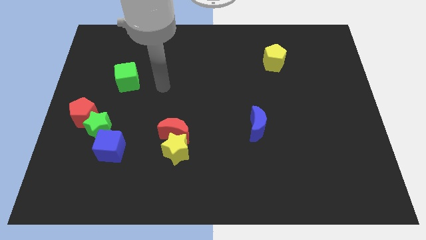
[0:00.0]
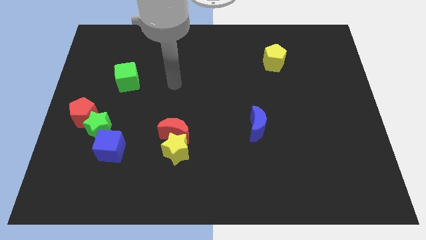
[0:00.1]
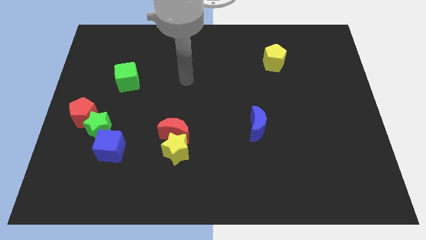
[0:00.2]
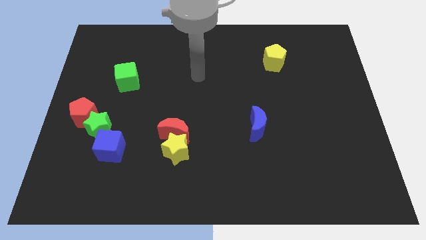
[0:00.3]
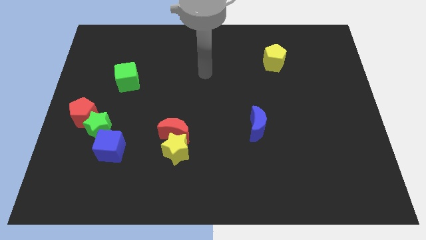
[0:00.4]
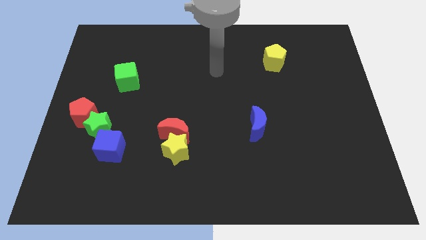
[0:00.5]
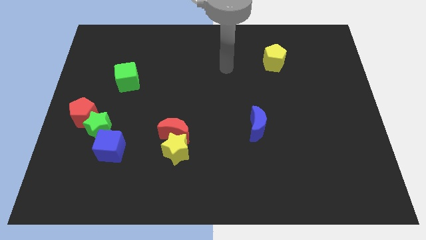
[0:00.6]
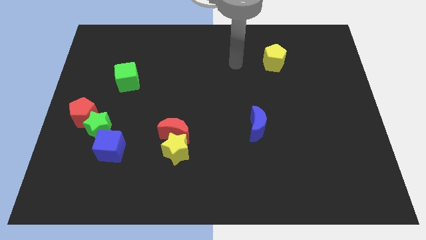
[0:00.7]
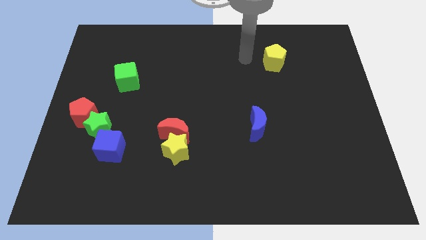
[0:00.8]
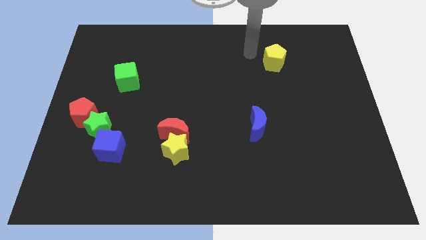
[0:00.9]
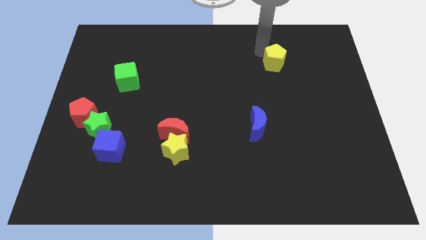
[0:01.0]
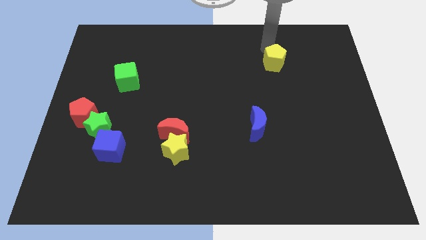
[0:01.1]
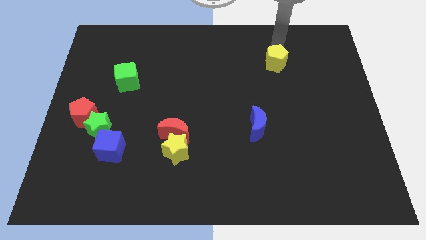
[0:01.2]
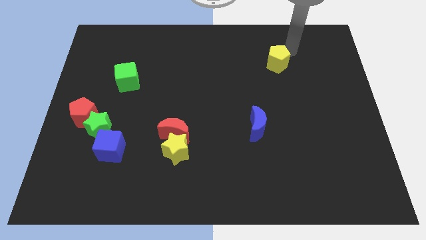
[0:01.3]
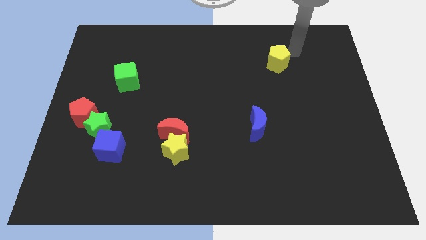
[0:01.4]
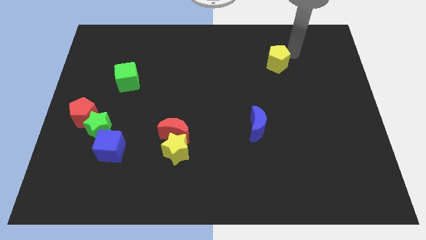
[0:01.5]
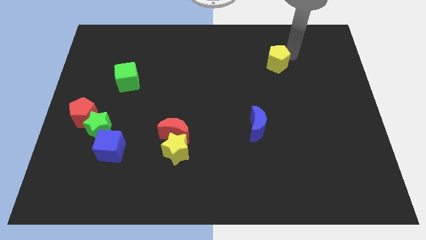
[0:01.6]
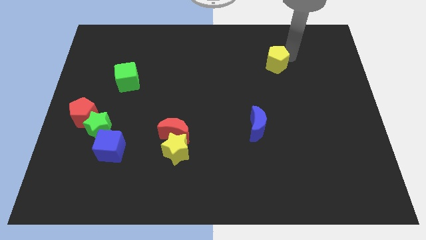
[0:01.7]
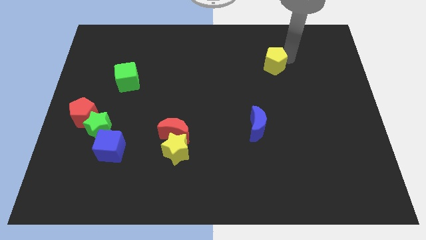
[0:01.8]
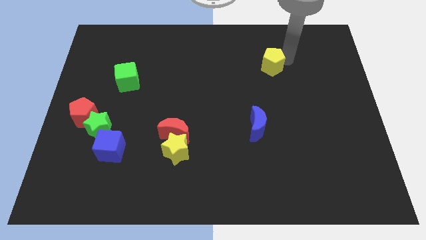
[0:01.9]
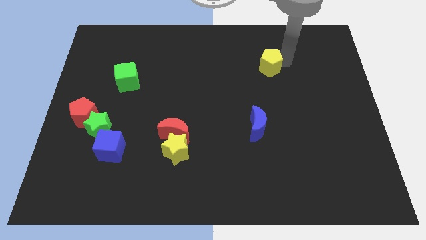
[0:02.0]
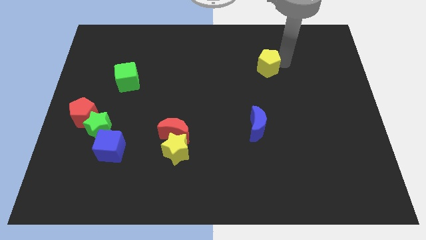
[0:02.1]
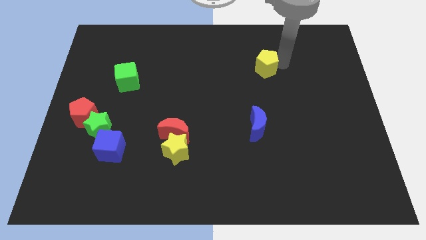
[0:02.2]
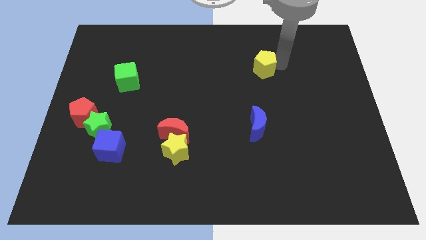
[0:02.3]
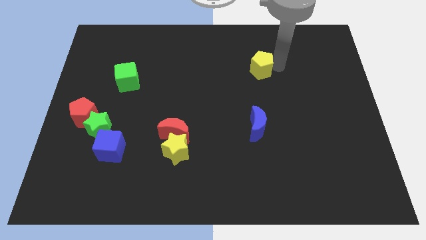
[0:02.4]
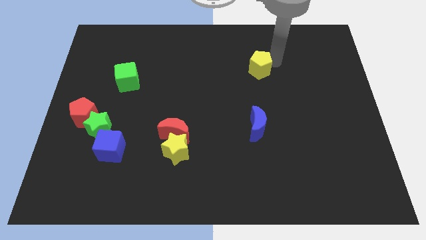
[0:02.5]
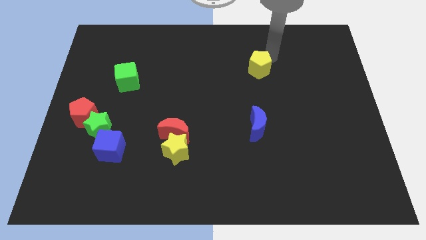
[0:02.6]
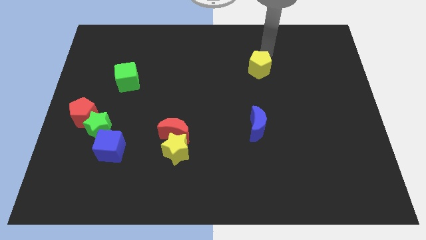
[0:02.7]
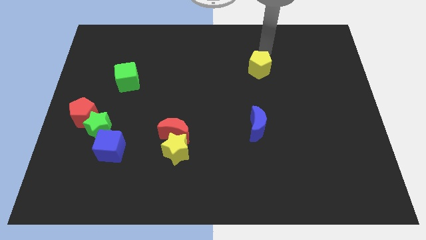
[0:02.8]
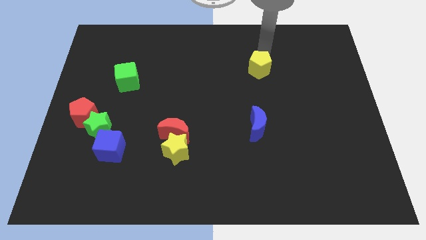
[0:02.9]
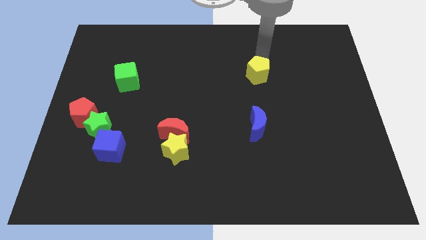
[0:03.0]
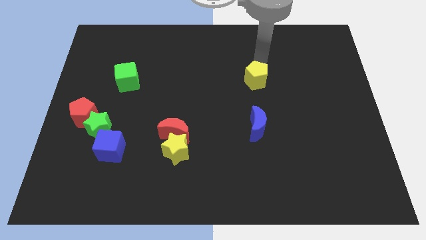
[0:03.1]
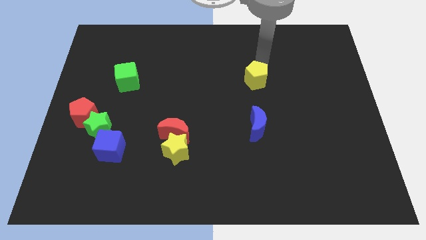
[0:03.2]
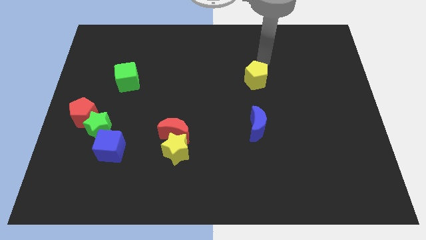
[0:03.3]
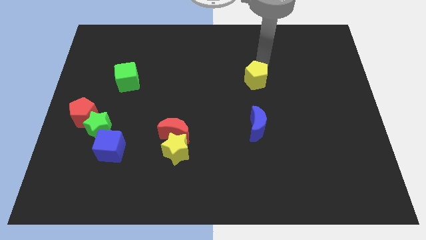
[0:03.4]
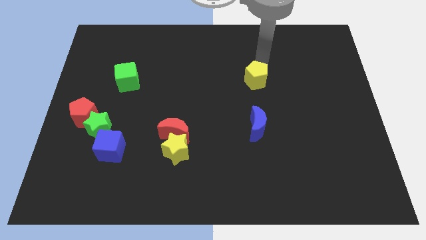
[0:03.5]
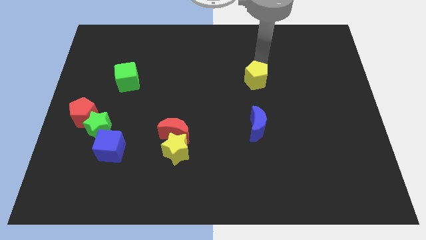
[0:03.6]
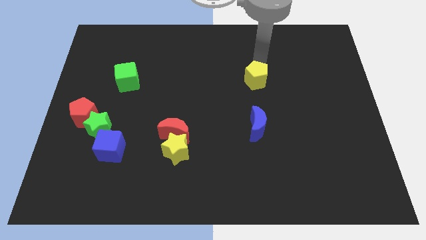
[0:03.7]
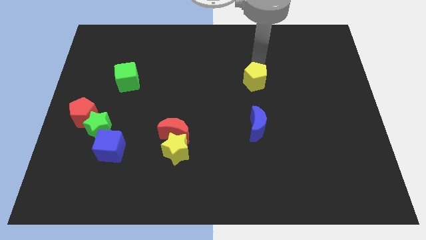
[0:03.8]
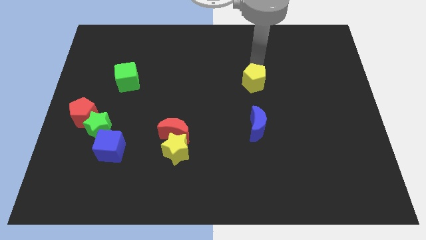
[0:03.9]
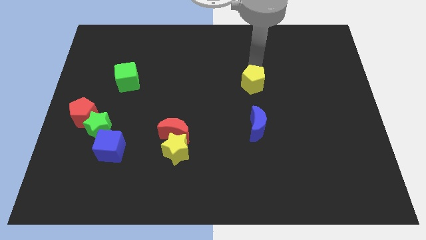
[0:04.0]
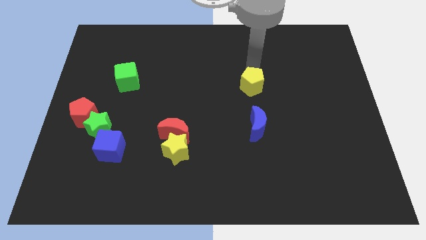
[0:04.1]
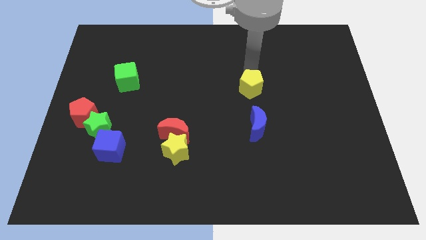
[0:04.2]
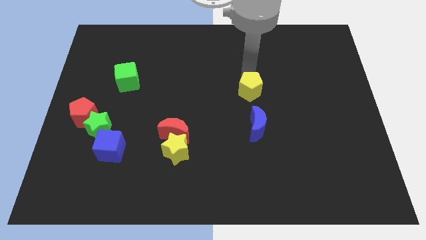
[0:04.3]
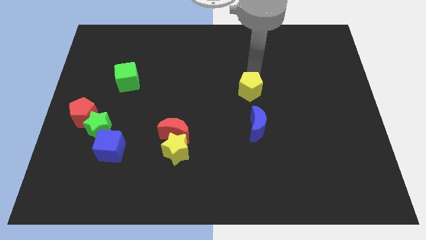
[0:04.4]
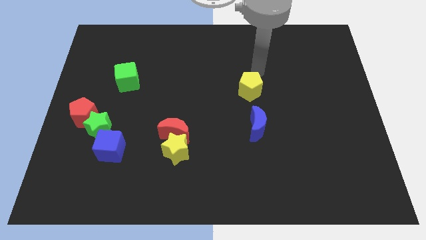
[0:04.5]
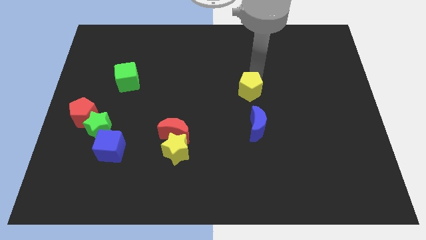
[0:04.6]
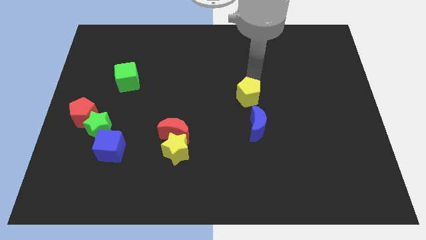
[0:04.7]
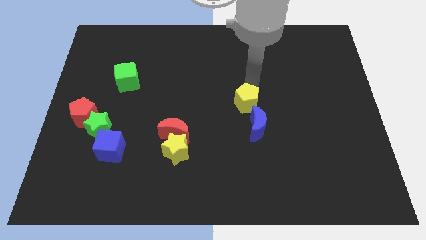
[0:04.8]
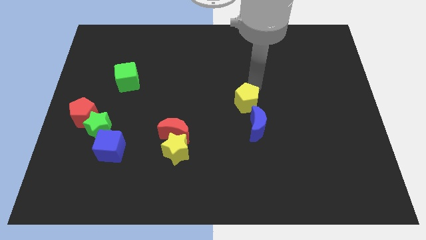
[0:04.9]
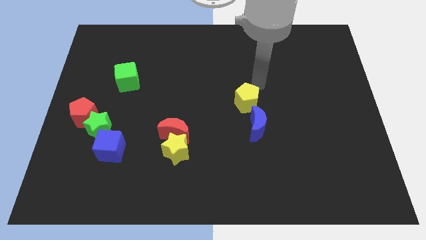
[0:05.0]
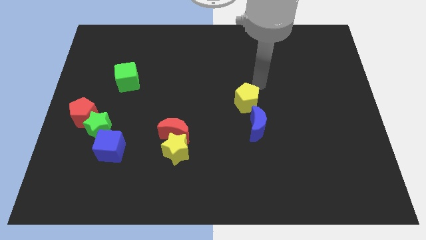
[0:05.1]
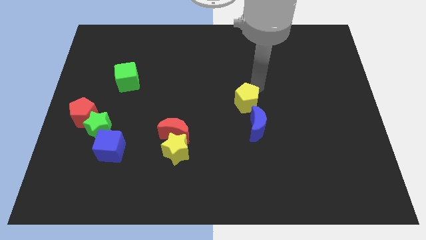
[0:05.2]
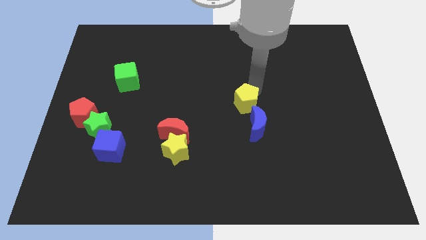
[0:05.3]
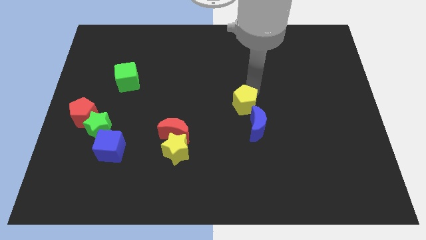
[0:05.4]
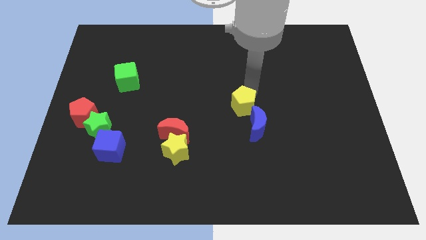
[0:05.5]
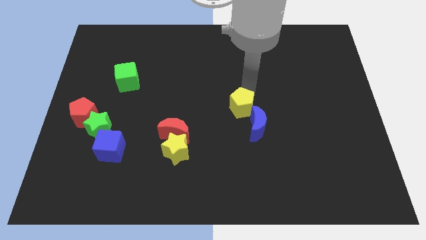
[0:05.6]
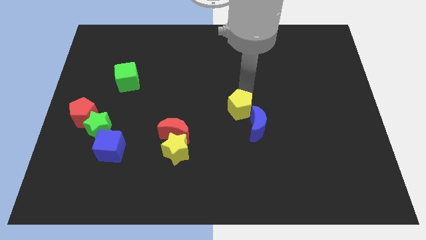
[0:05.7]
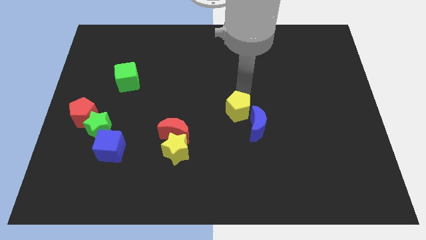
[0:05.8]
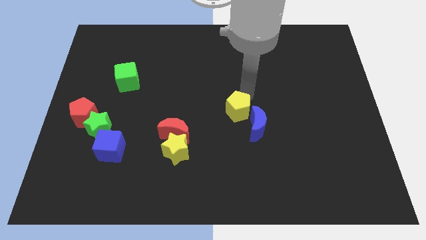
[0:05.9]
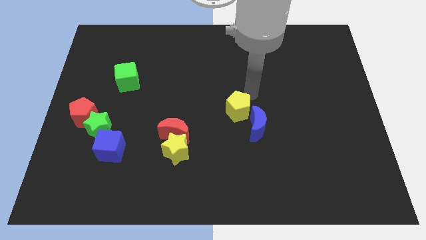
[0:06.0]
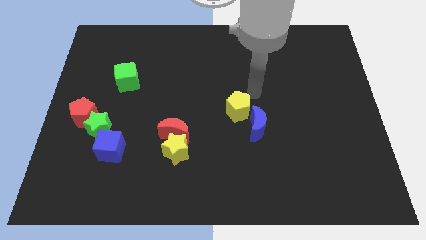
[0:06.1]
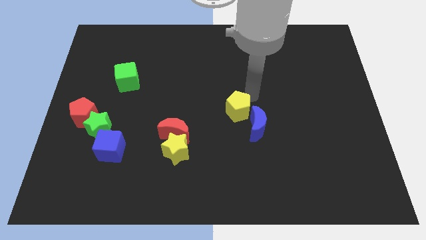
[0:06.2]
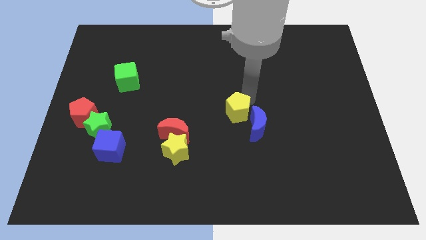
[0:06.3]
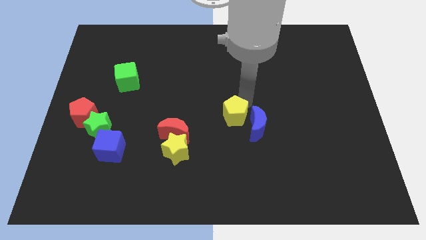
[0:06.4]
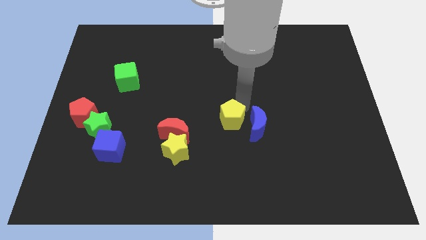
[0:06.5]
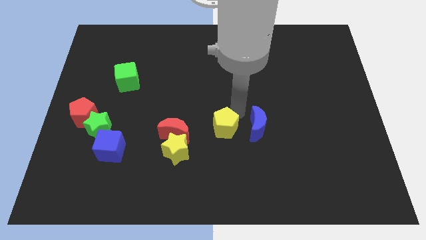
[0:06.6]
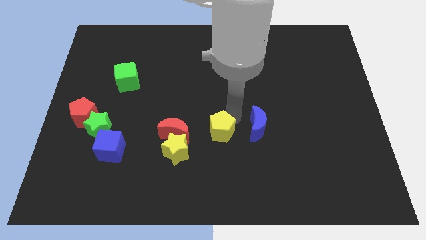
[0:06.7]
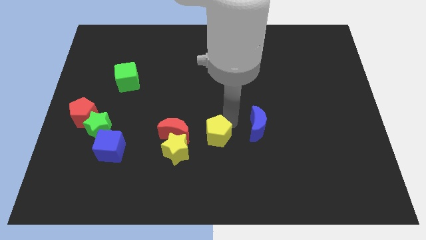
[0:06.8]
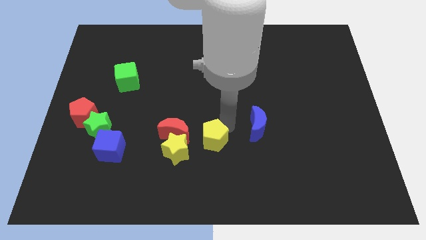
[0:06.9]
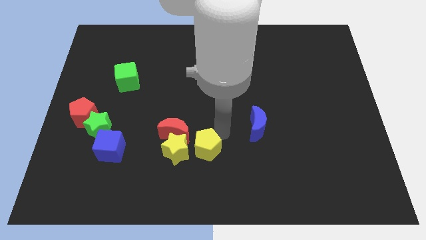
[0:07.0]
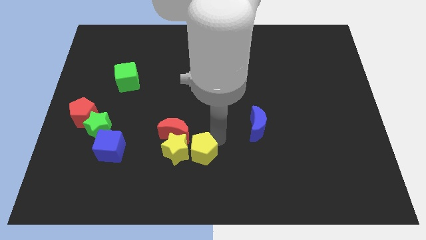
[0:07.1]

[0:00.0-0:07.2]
slide the yellow pentagon close to the yellow star

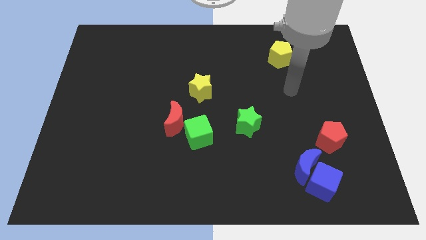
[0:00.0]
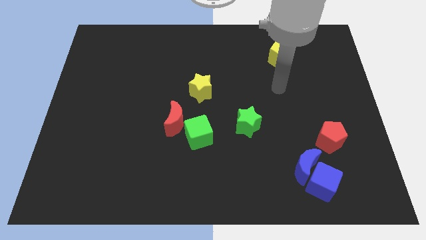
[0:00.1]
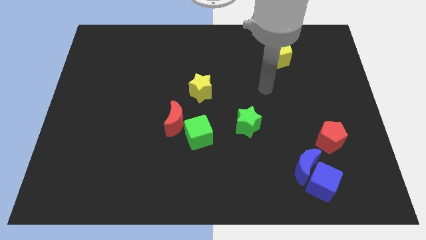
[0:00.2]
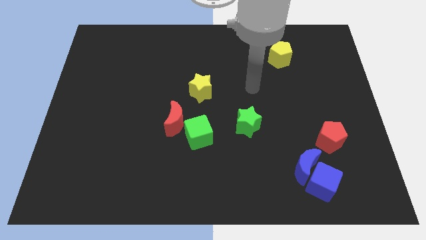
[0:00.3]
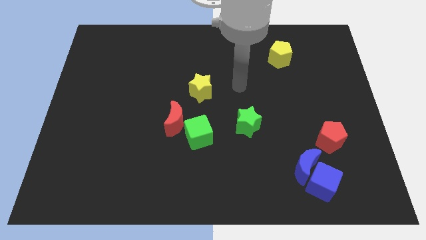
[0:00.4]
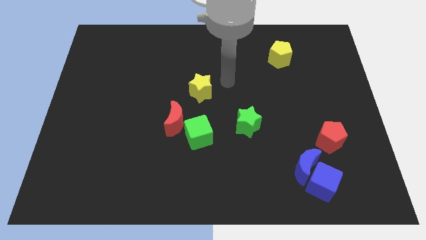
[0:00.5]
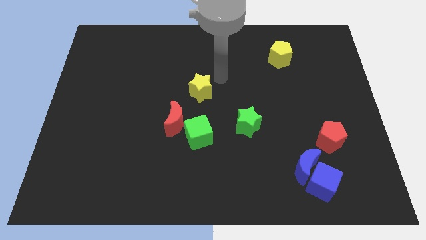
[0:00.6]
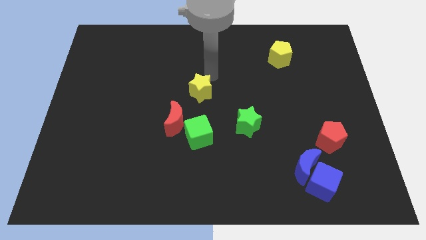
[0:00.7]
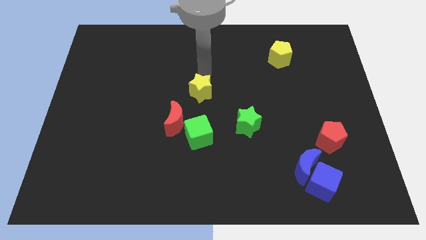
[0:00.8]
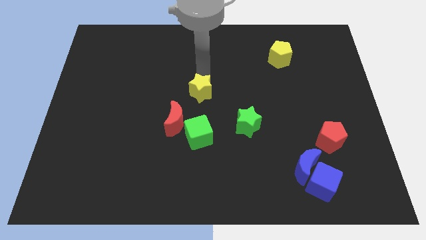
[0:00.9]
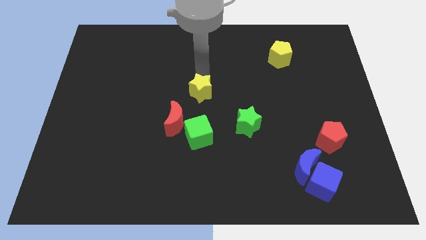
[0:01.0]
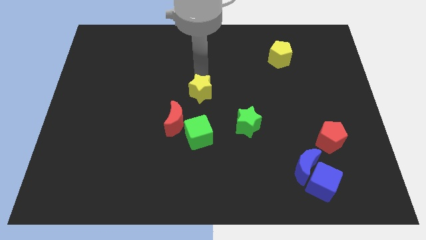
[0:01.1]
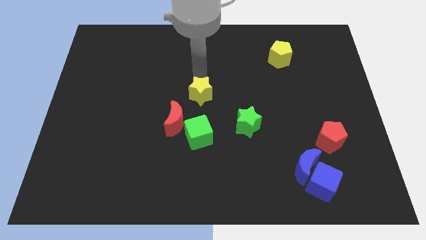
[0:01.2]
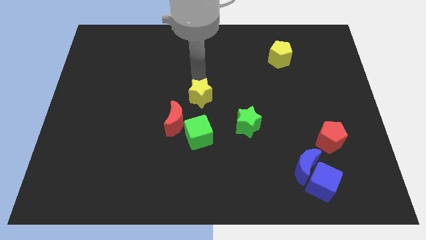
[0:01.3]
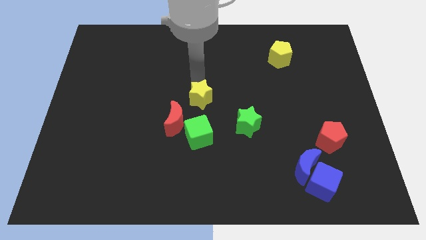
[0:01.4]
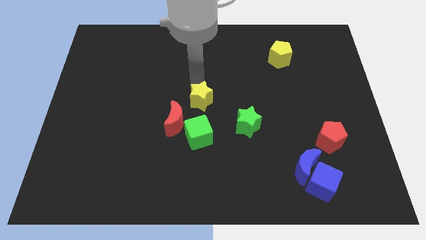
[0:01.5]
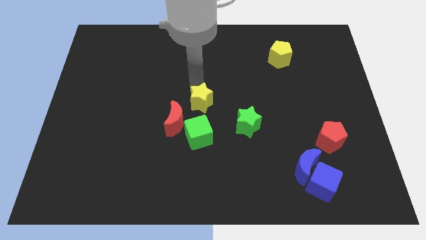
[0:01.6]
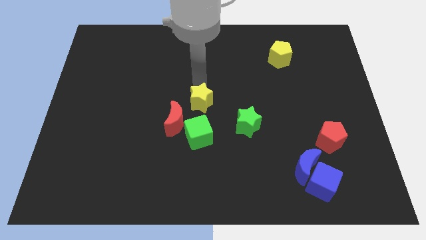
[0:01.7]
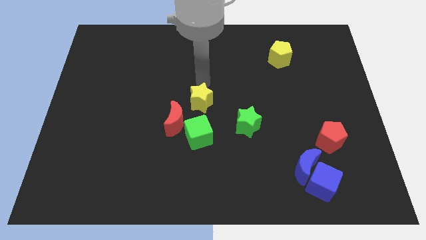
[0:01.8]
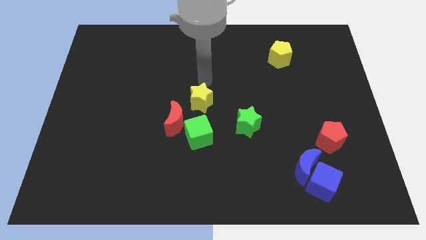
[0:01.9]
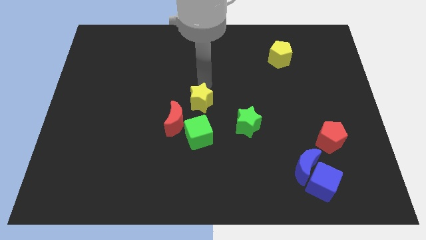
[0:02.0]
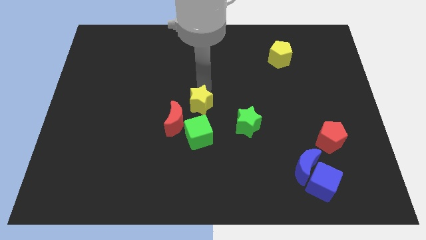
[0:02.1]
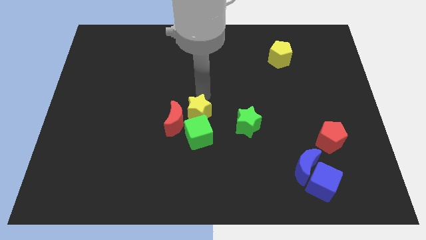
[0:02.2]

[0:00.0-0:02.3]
slide the yellow star to the green cube
